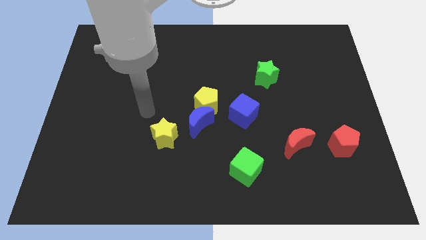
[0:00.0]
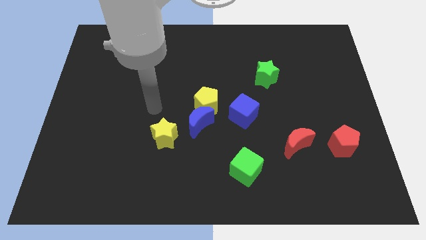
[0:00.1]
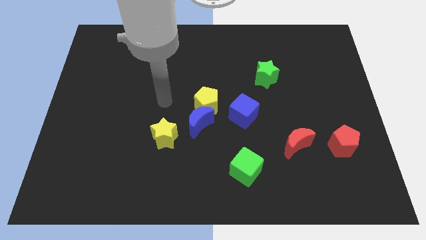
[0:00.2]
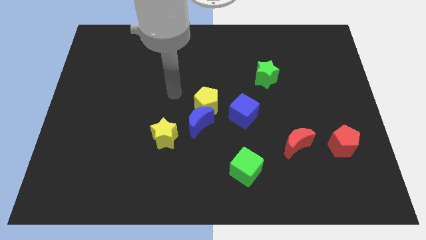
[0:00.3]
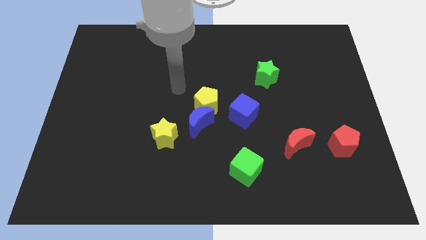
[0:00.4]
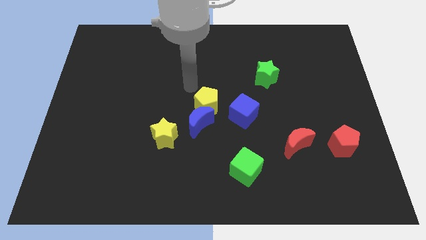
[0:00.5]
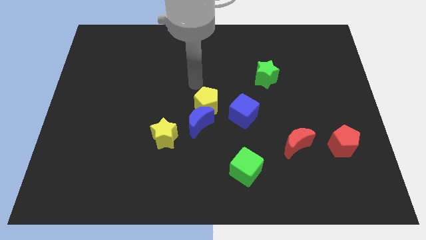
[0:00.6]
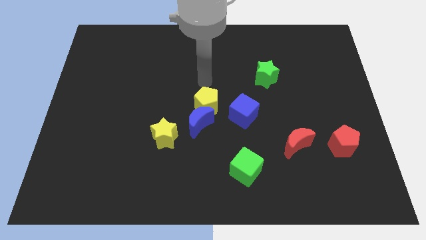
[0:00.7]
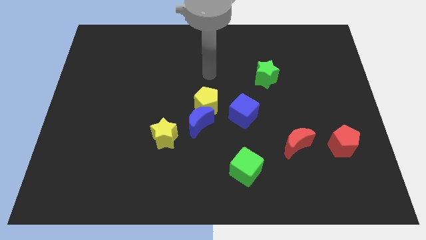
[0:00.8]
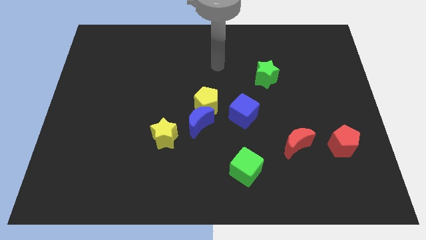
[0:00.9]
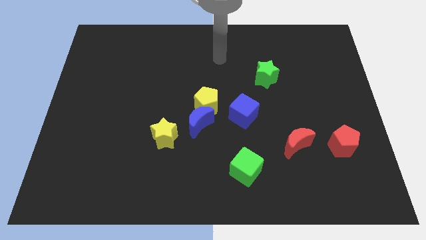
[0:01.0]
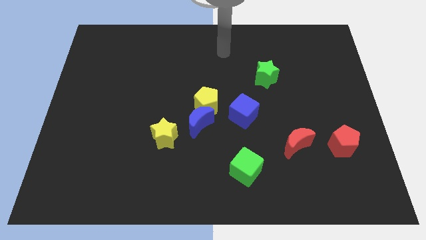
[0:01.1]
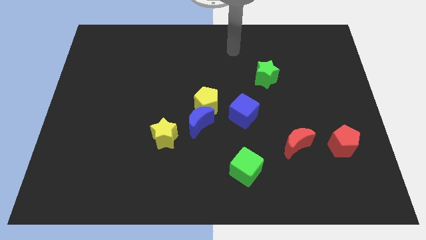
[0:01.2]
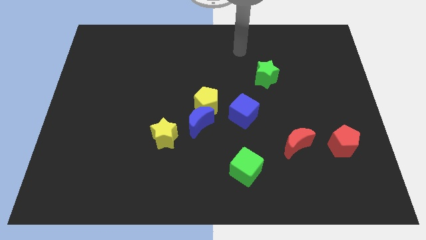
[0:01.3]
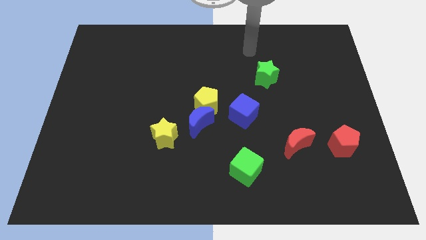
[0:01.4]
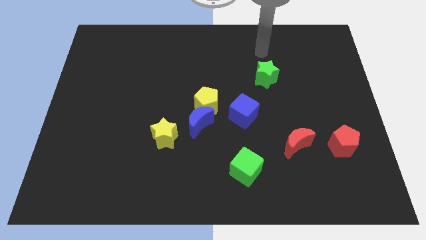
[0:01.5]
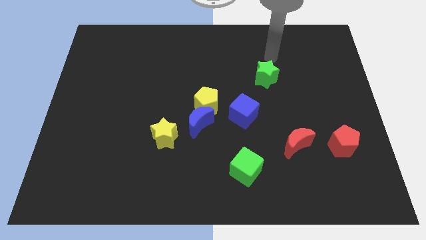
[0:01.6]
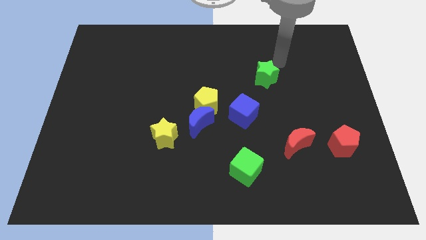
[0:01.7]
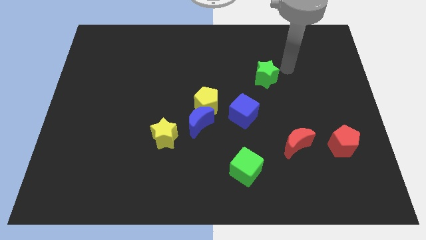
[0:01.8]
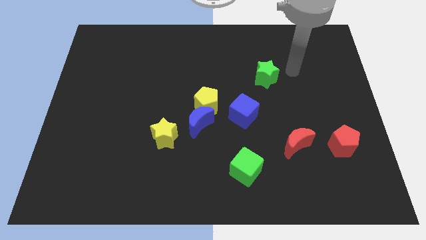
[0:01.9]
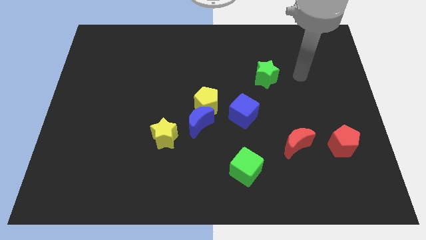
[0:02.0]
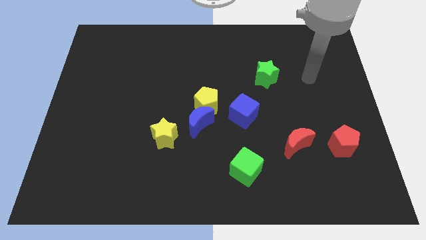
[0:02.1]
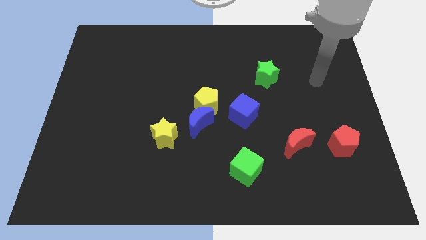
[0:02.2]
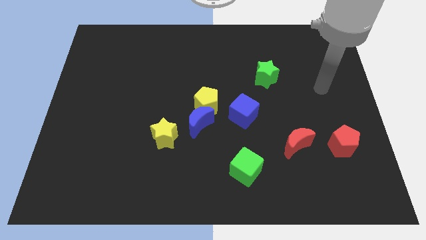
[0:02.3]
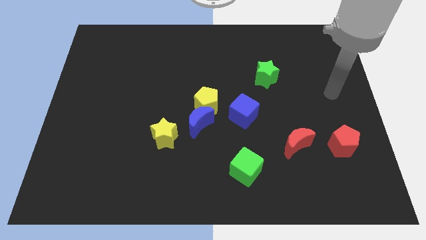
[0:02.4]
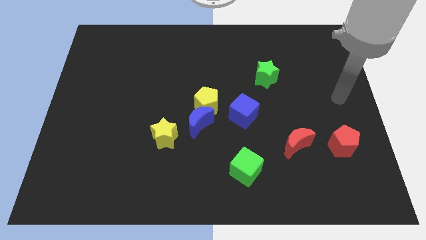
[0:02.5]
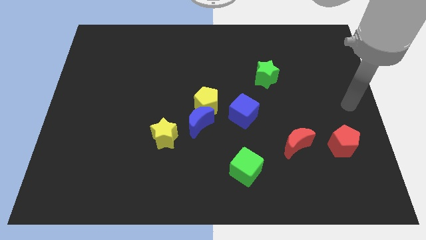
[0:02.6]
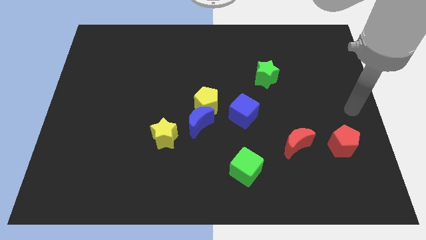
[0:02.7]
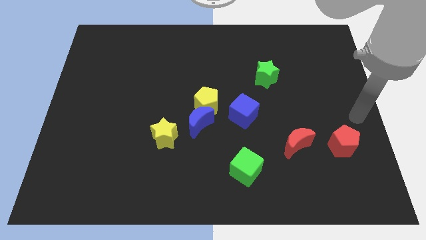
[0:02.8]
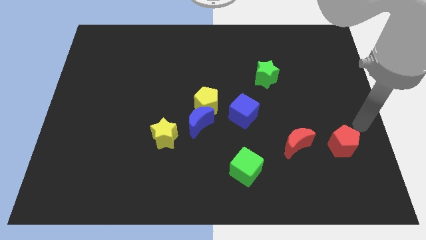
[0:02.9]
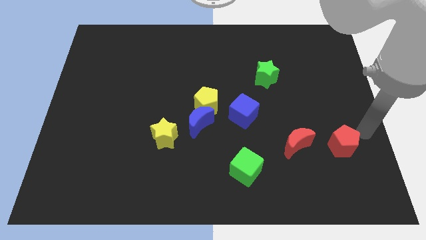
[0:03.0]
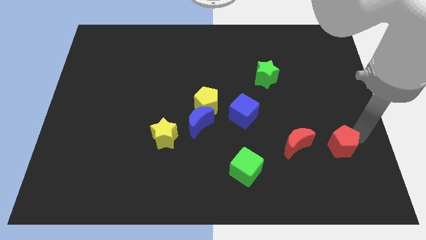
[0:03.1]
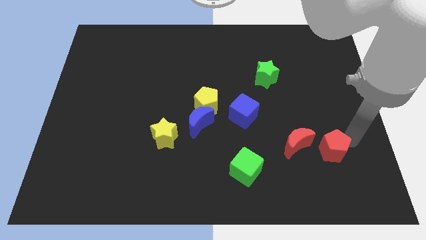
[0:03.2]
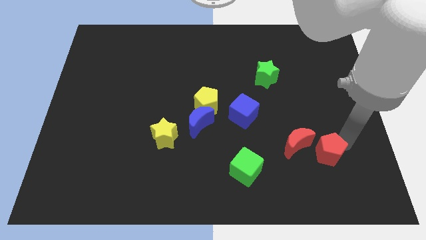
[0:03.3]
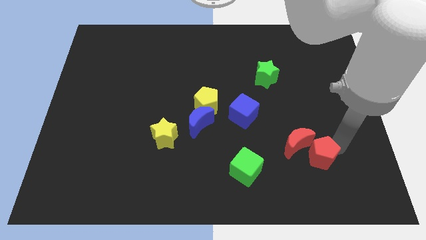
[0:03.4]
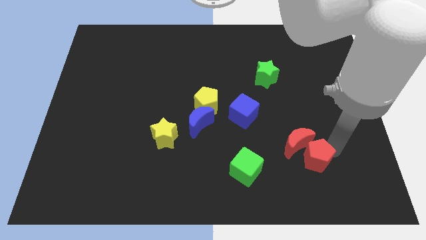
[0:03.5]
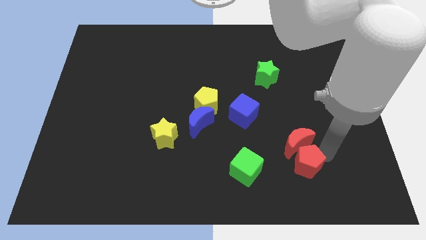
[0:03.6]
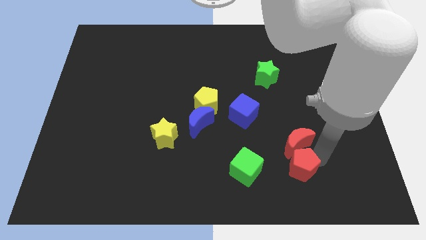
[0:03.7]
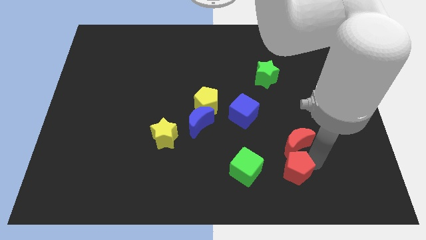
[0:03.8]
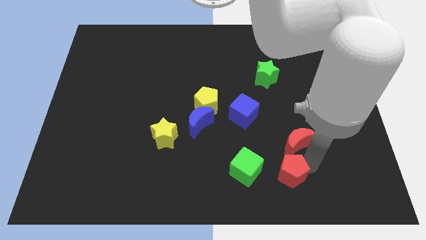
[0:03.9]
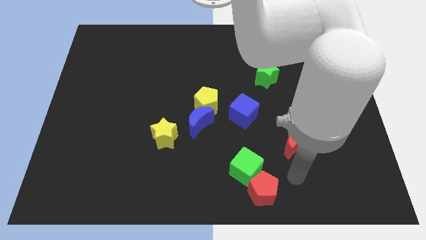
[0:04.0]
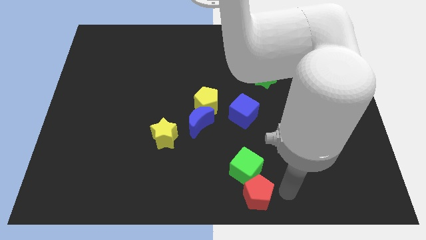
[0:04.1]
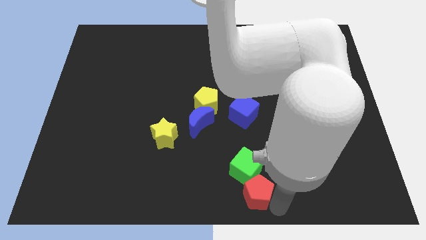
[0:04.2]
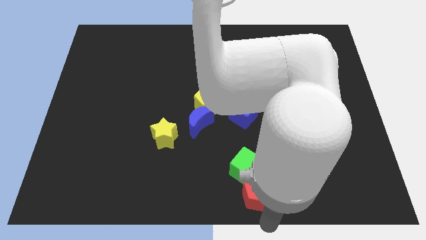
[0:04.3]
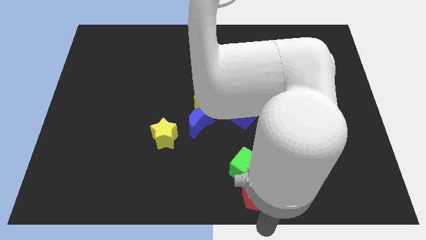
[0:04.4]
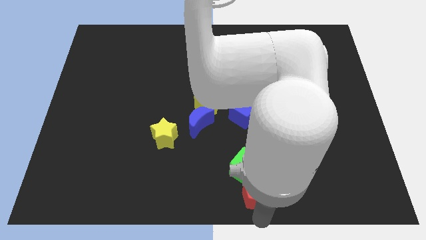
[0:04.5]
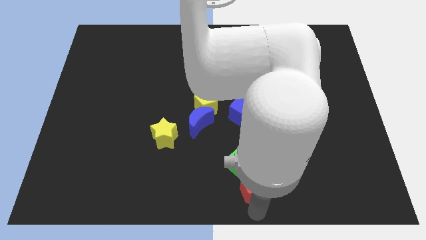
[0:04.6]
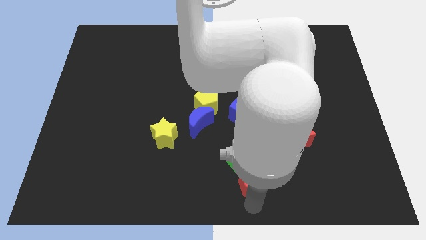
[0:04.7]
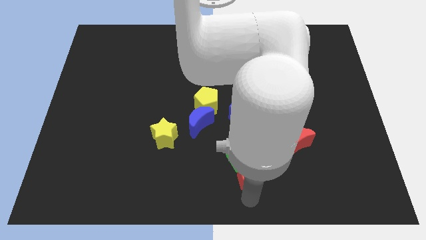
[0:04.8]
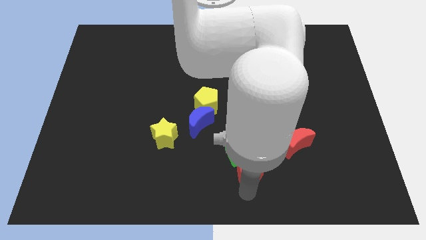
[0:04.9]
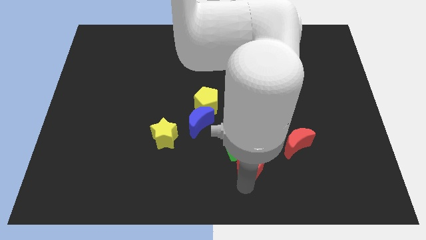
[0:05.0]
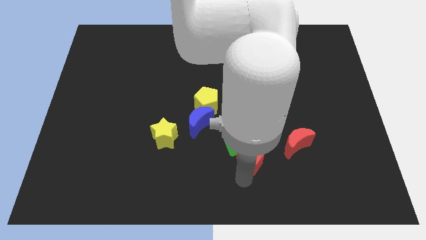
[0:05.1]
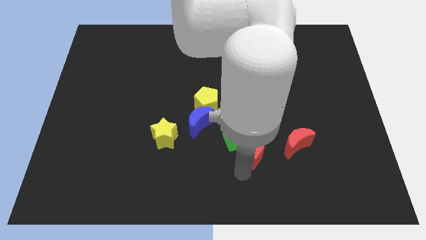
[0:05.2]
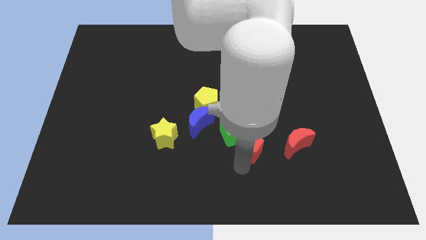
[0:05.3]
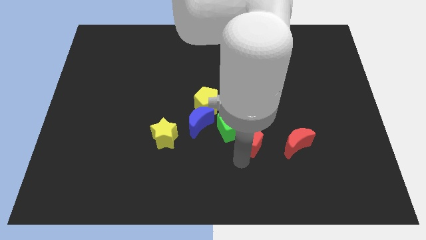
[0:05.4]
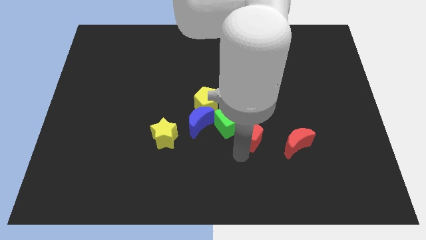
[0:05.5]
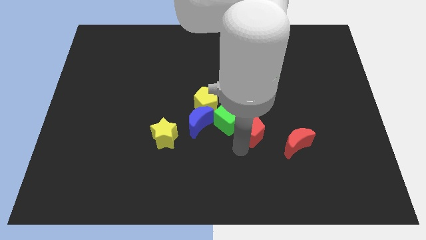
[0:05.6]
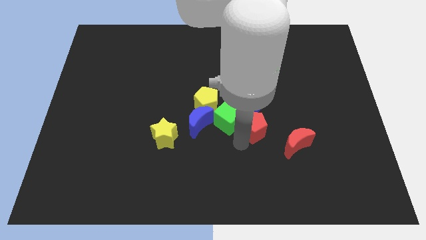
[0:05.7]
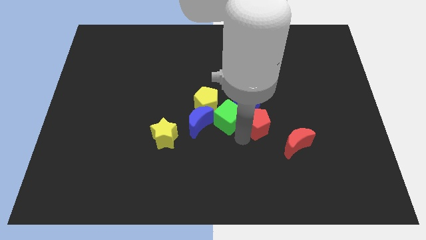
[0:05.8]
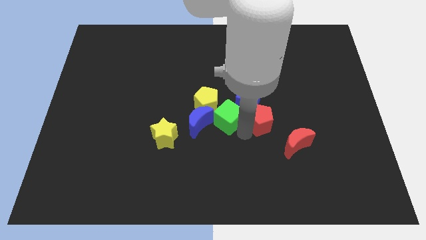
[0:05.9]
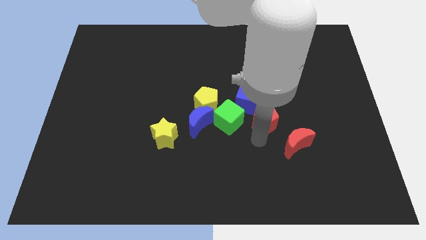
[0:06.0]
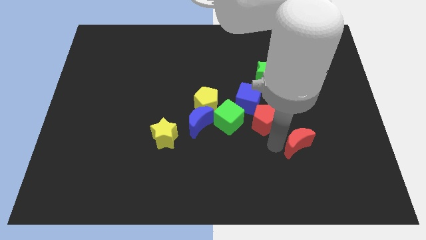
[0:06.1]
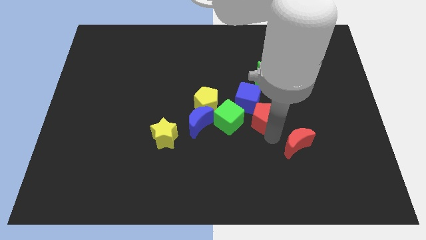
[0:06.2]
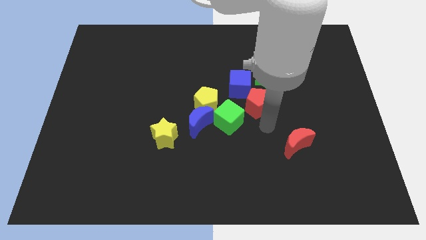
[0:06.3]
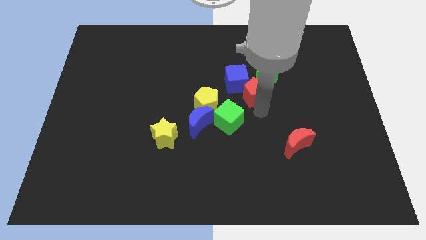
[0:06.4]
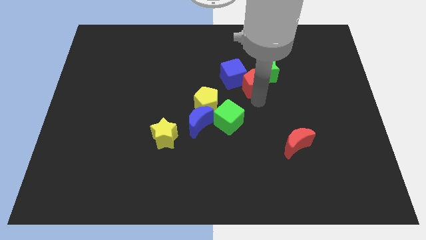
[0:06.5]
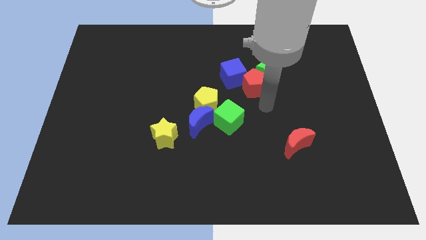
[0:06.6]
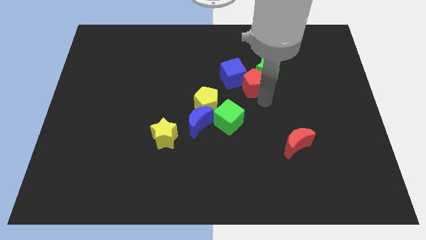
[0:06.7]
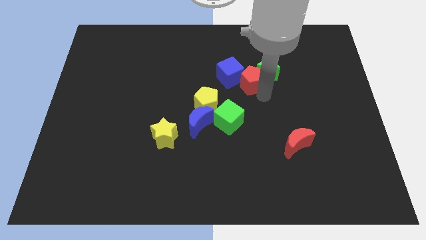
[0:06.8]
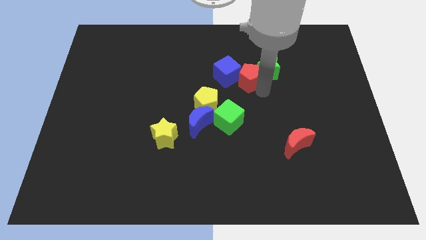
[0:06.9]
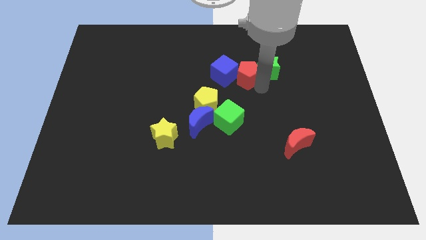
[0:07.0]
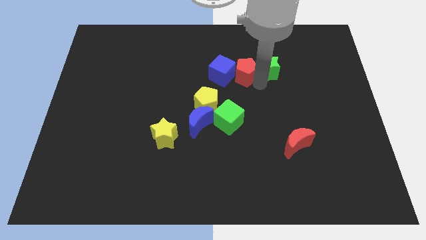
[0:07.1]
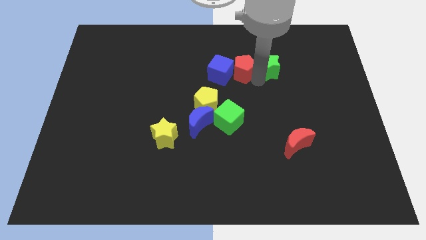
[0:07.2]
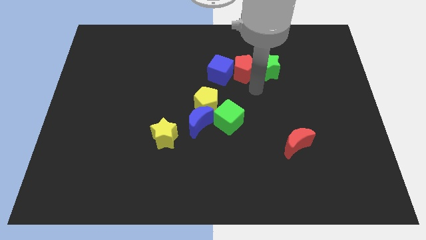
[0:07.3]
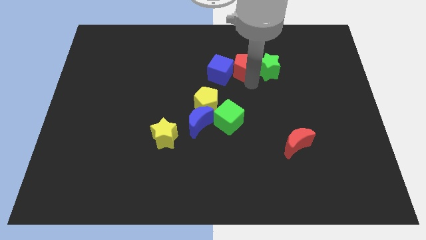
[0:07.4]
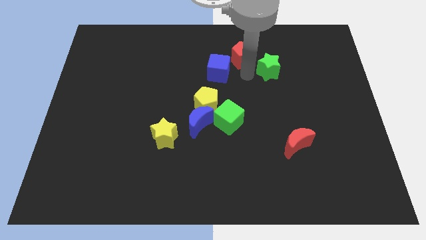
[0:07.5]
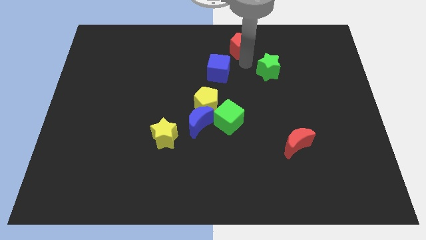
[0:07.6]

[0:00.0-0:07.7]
move the red pentagon to the towards your base
